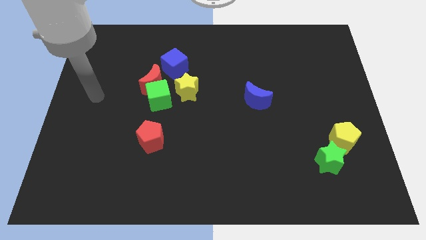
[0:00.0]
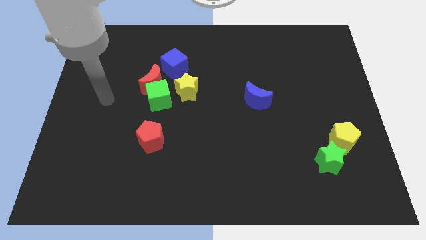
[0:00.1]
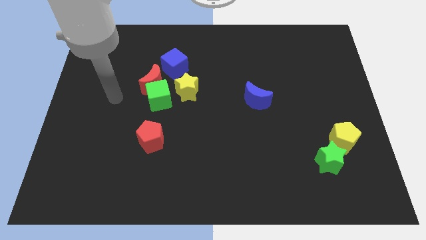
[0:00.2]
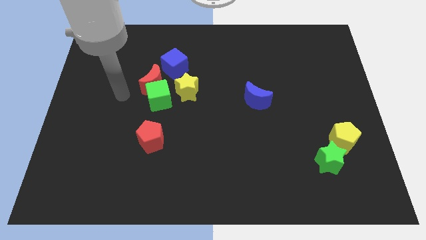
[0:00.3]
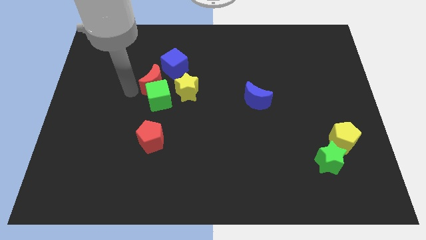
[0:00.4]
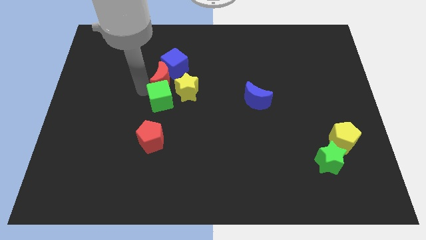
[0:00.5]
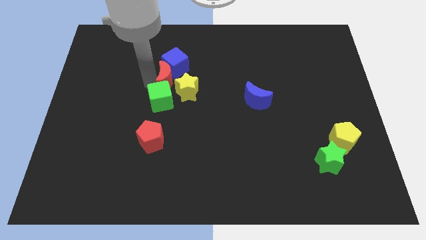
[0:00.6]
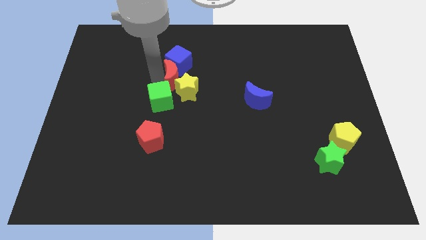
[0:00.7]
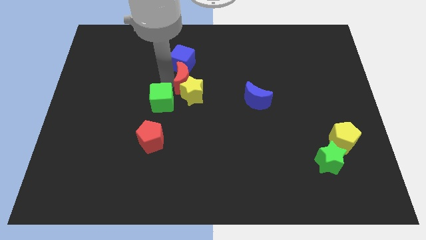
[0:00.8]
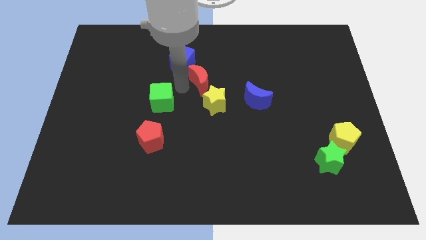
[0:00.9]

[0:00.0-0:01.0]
move the green cube away from the red moon and yellow star

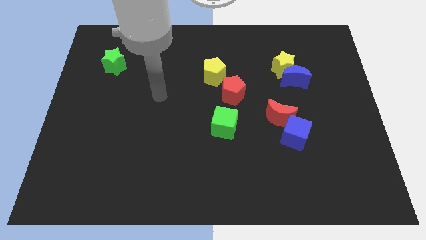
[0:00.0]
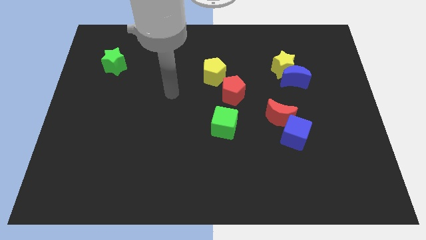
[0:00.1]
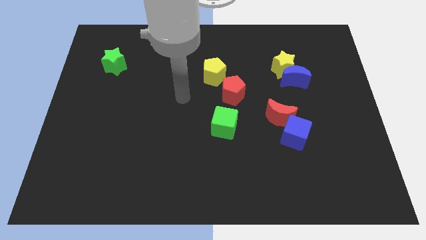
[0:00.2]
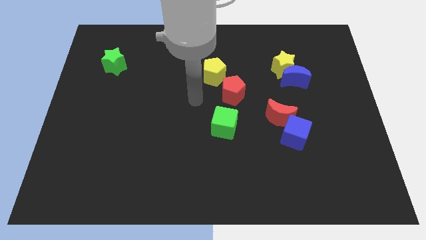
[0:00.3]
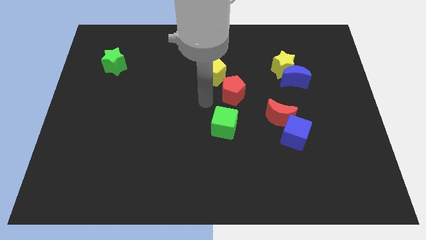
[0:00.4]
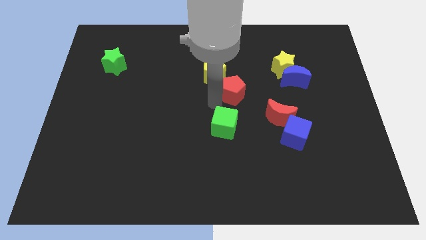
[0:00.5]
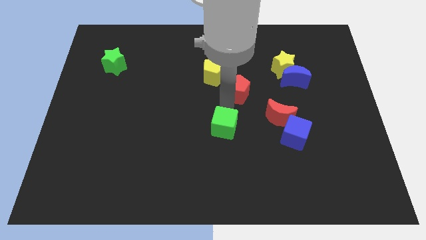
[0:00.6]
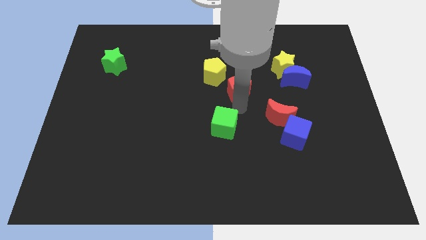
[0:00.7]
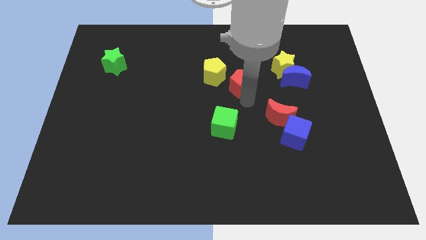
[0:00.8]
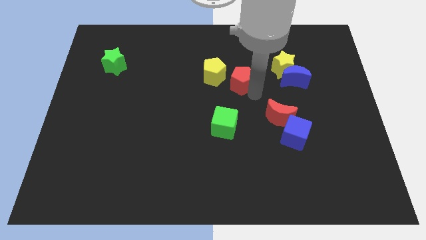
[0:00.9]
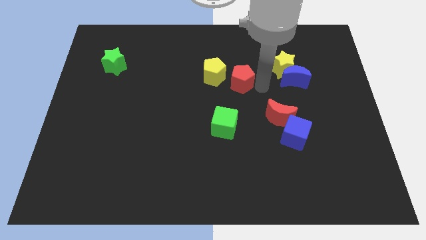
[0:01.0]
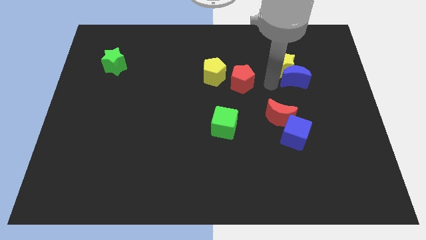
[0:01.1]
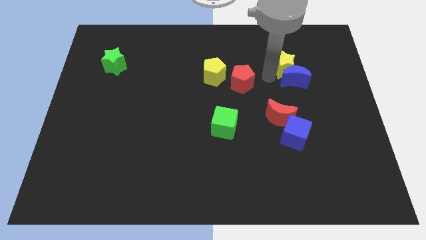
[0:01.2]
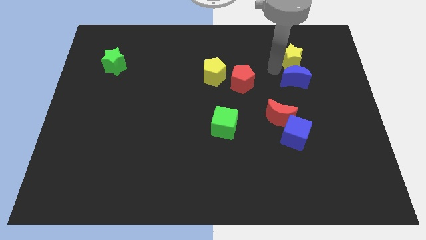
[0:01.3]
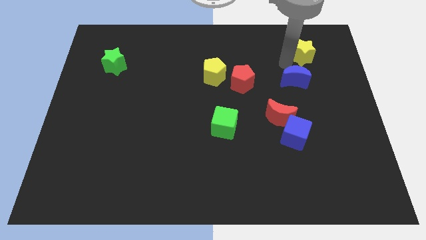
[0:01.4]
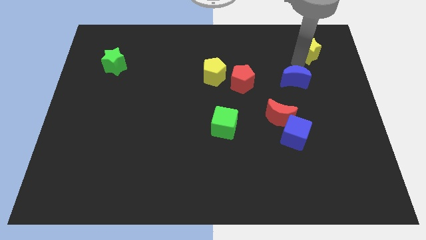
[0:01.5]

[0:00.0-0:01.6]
separate the blue moon from the yellow star

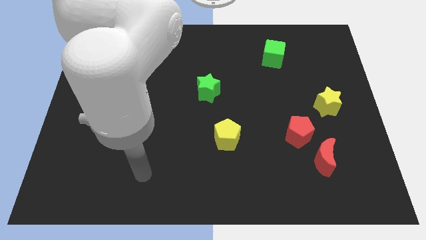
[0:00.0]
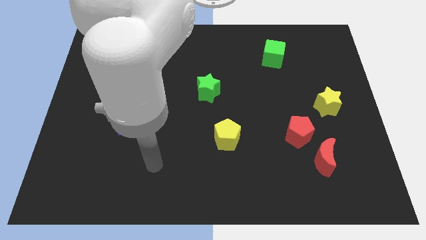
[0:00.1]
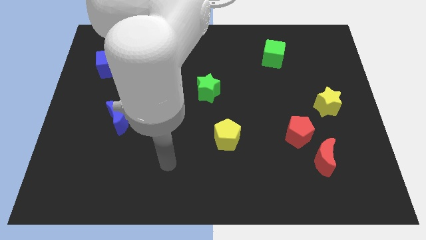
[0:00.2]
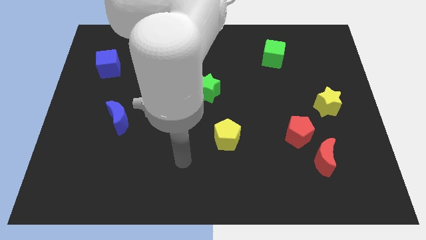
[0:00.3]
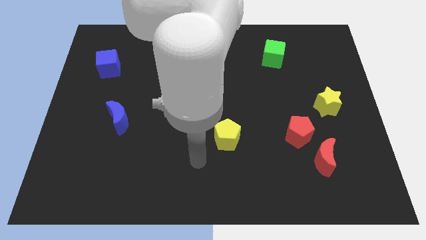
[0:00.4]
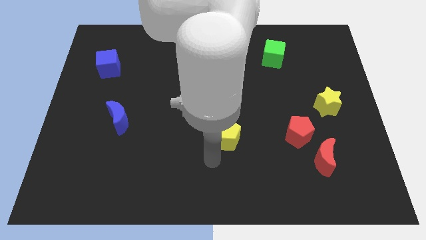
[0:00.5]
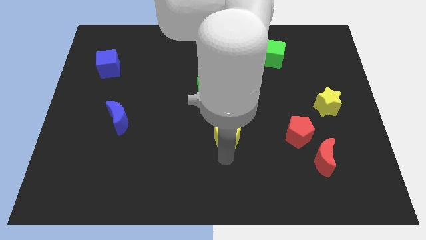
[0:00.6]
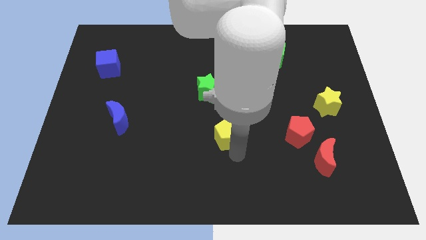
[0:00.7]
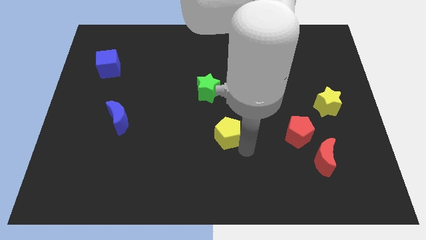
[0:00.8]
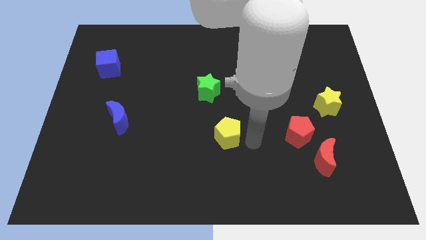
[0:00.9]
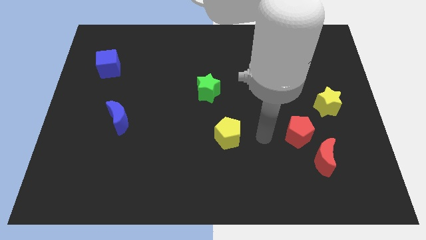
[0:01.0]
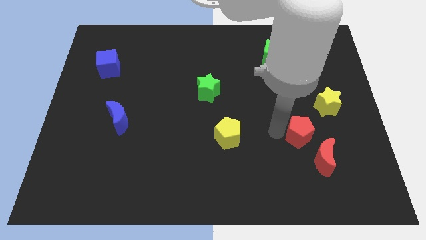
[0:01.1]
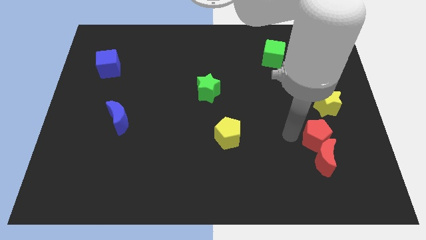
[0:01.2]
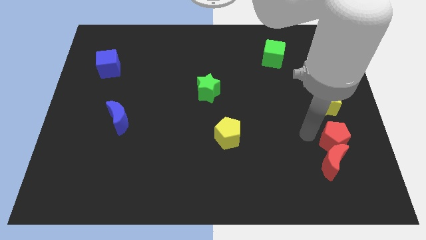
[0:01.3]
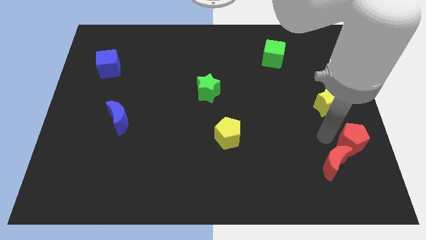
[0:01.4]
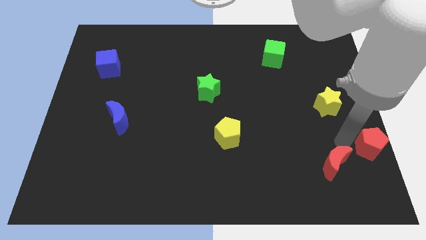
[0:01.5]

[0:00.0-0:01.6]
separate the red moon from the red pentagon

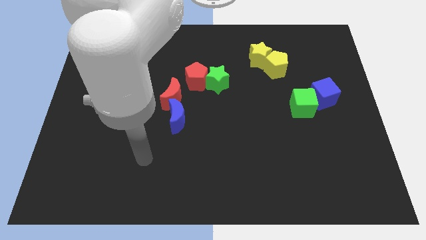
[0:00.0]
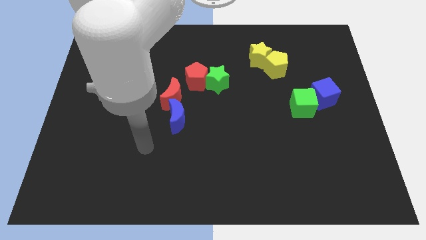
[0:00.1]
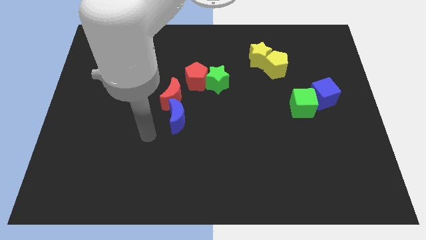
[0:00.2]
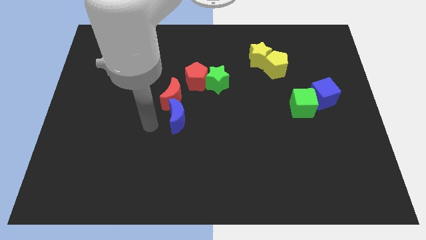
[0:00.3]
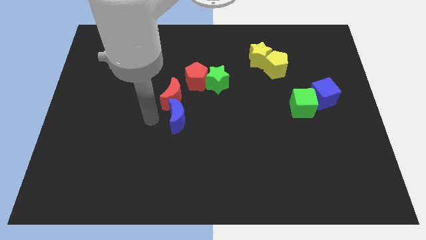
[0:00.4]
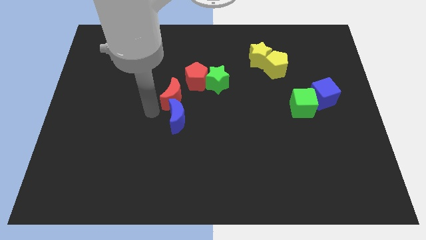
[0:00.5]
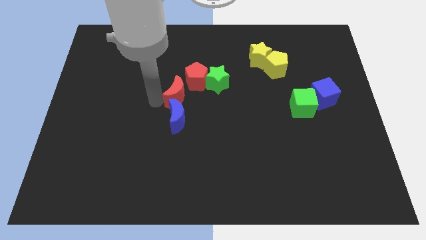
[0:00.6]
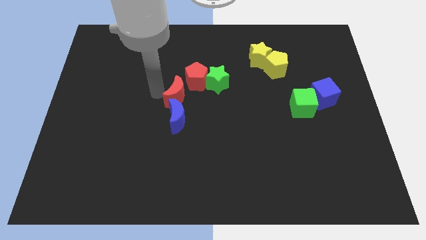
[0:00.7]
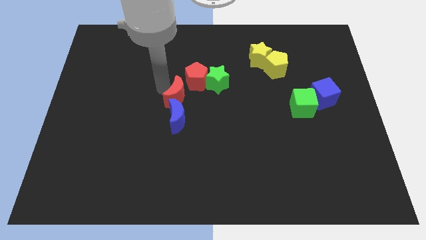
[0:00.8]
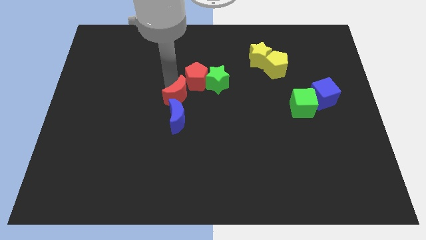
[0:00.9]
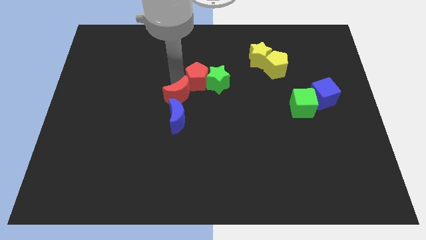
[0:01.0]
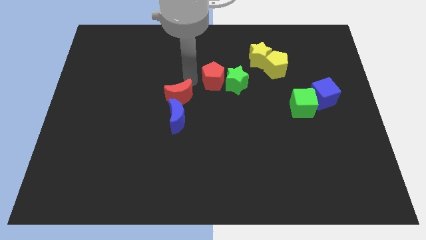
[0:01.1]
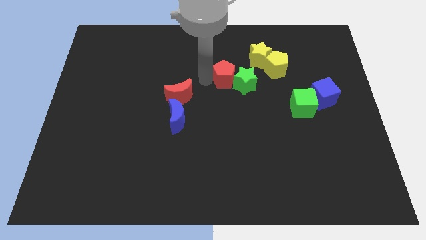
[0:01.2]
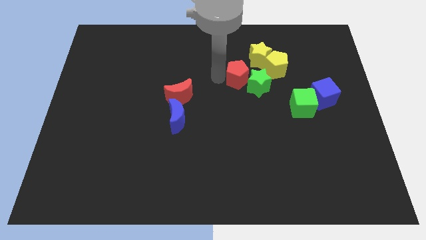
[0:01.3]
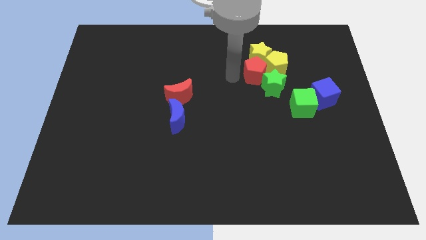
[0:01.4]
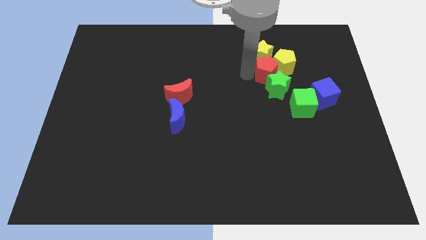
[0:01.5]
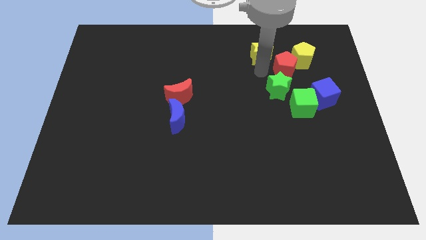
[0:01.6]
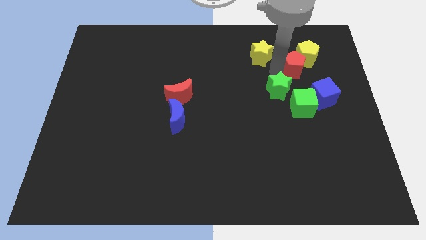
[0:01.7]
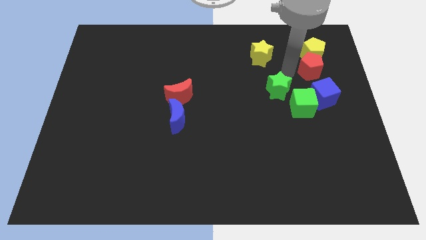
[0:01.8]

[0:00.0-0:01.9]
pull the green star apart from the red pentagon

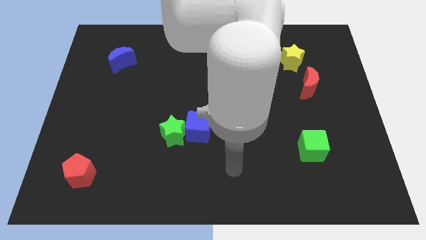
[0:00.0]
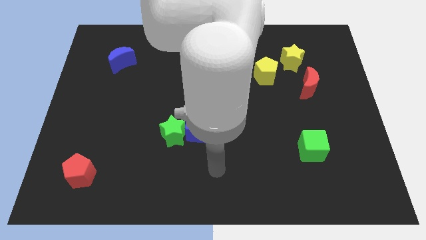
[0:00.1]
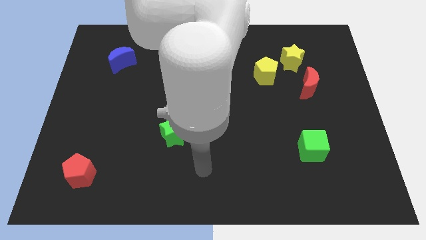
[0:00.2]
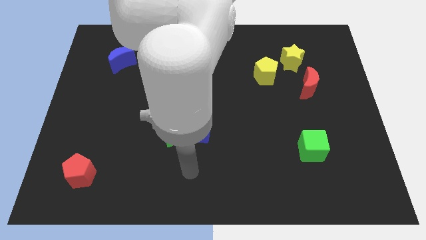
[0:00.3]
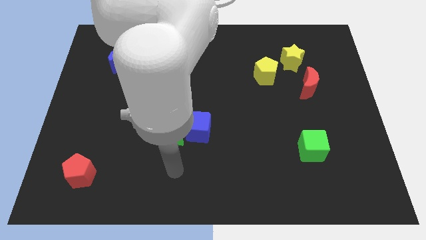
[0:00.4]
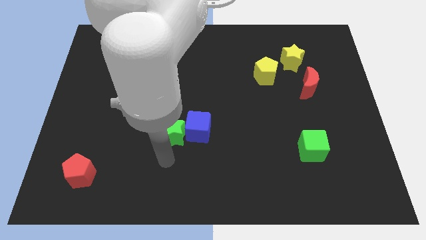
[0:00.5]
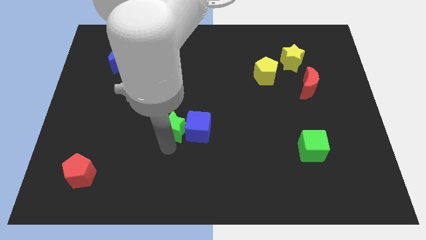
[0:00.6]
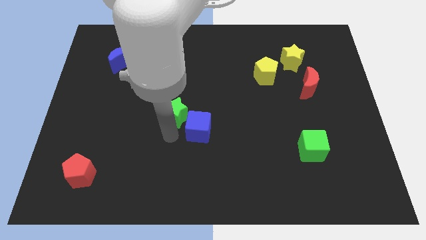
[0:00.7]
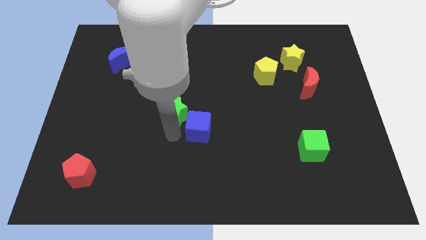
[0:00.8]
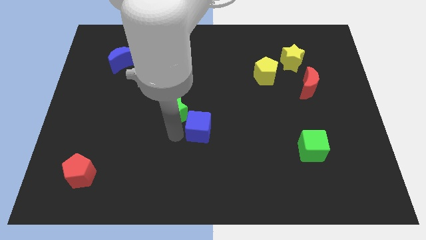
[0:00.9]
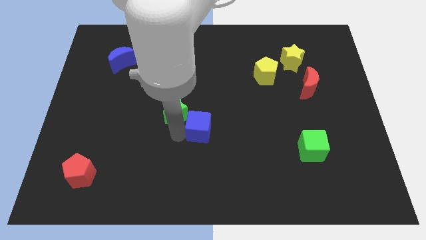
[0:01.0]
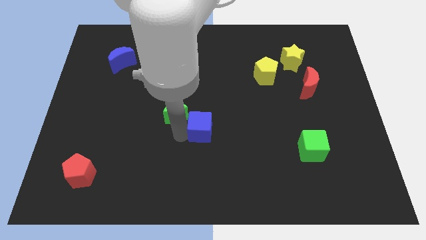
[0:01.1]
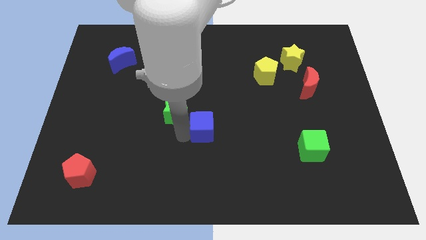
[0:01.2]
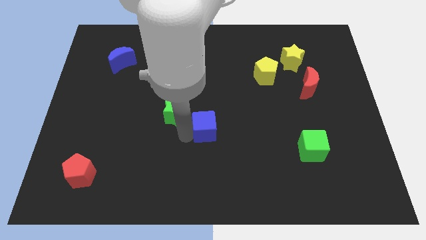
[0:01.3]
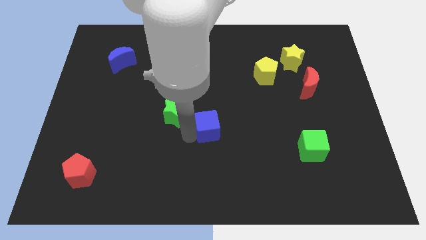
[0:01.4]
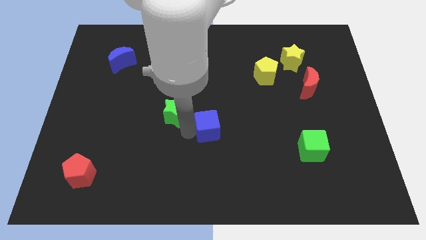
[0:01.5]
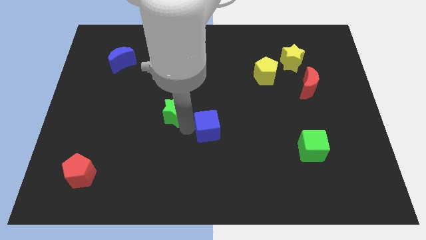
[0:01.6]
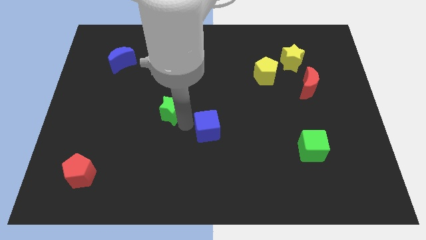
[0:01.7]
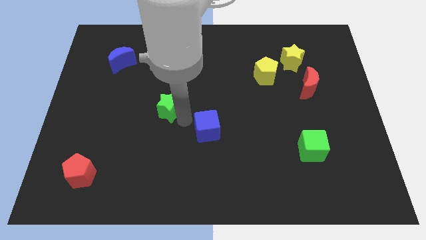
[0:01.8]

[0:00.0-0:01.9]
pull the blue cube apart from the green star

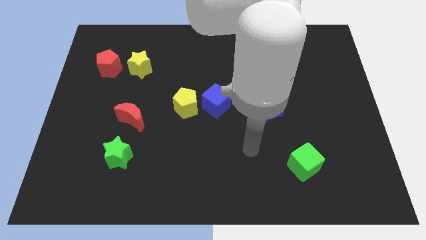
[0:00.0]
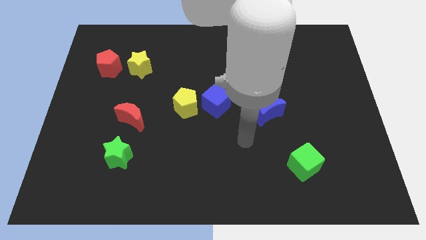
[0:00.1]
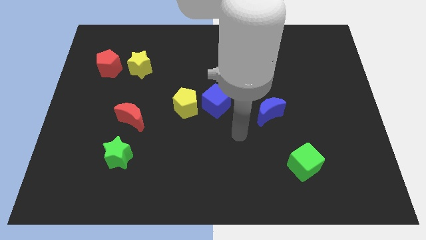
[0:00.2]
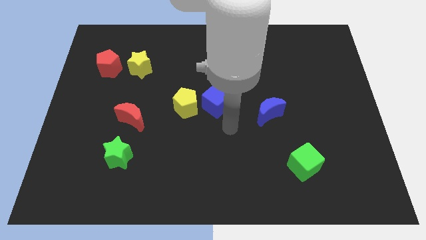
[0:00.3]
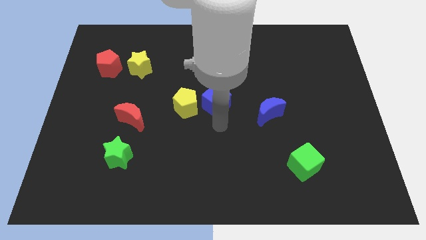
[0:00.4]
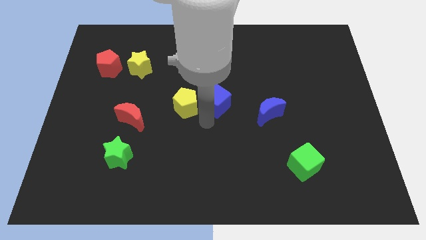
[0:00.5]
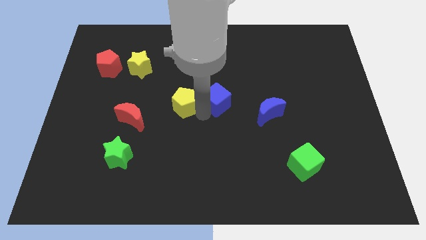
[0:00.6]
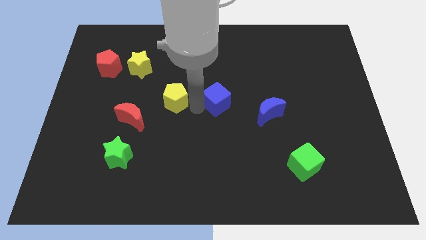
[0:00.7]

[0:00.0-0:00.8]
pull the blue cube apart from the yellow pentagon

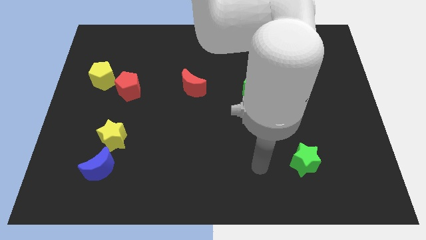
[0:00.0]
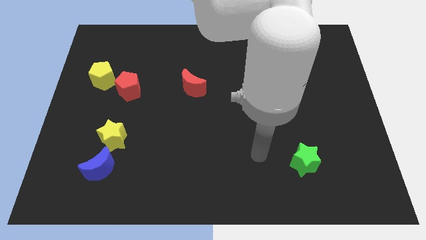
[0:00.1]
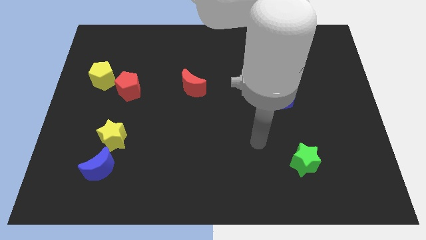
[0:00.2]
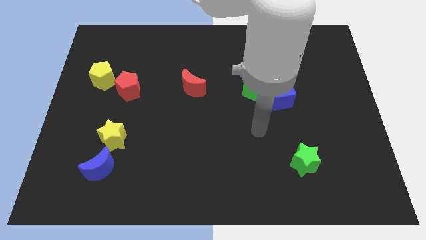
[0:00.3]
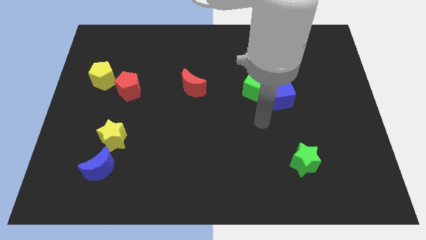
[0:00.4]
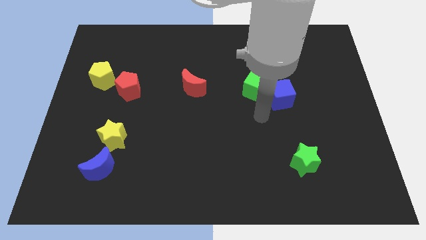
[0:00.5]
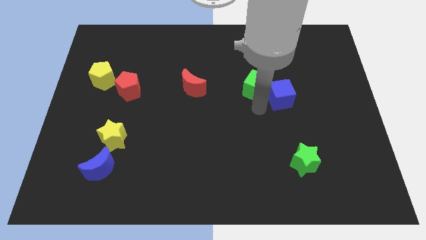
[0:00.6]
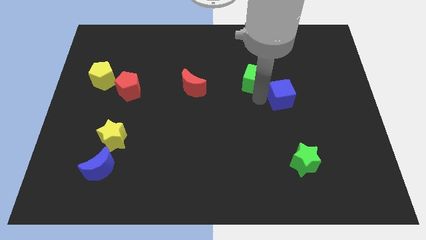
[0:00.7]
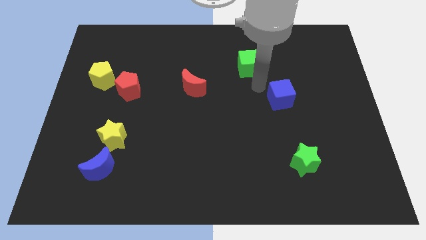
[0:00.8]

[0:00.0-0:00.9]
move the blue cube away from the green cube
